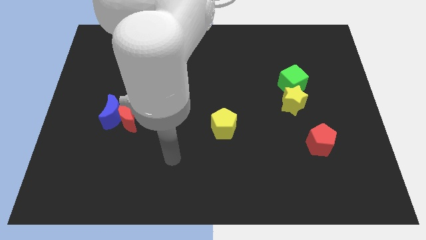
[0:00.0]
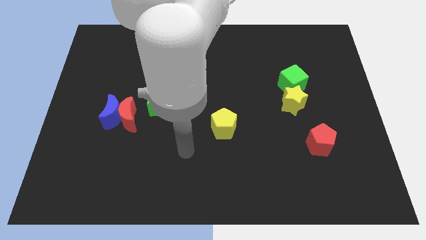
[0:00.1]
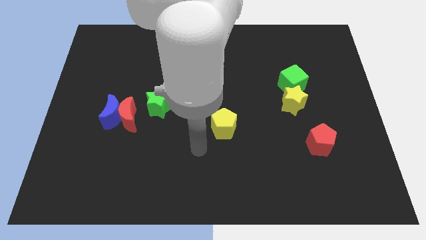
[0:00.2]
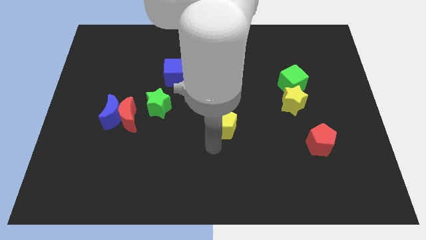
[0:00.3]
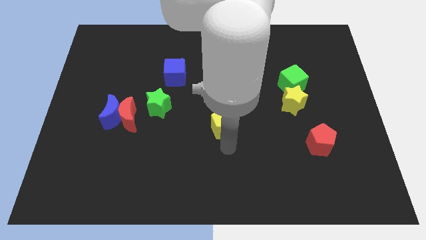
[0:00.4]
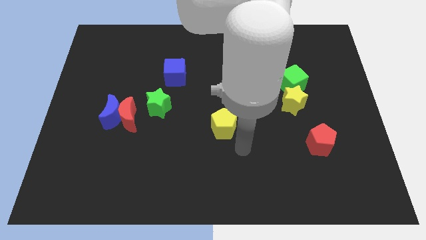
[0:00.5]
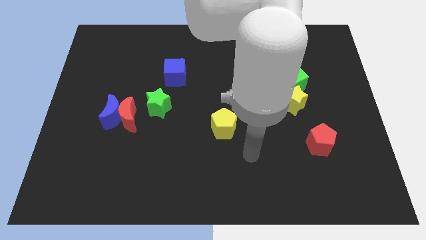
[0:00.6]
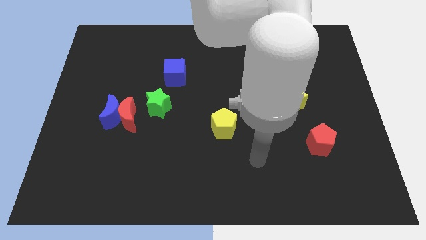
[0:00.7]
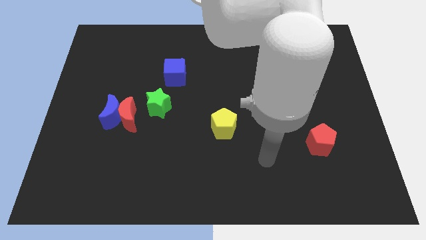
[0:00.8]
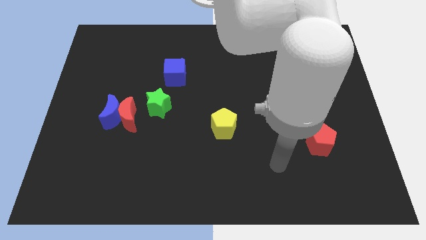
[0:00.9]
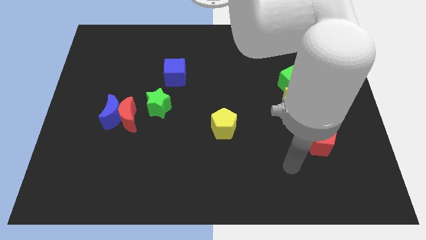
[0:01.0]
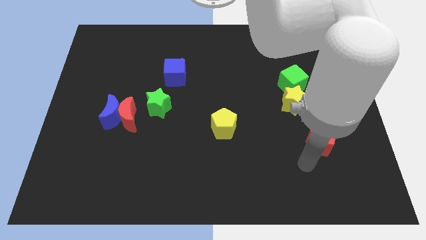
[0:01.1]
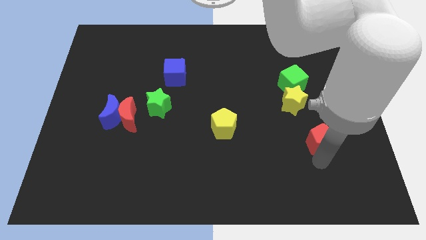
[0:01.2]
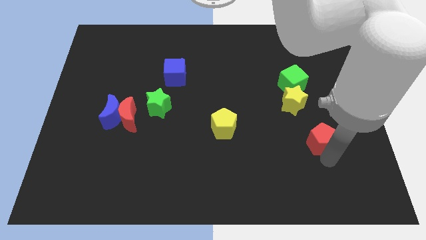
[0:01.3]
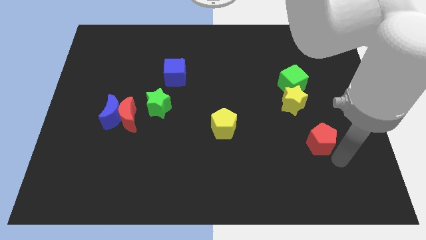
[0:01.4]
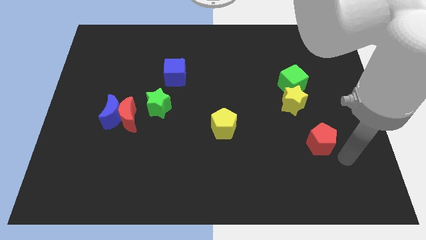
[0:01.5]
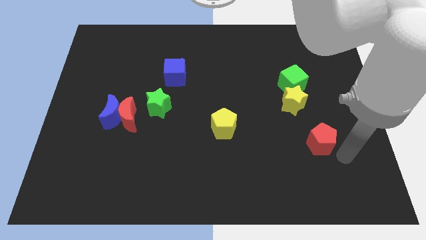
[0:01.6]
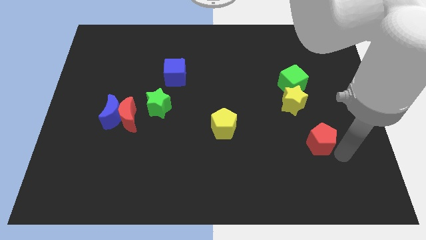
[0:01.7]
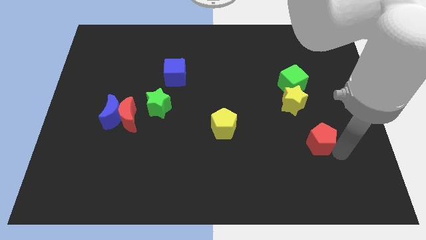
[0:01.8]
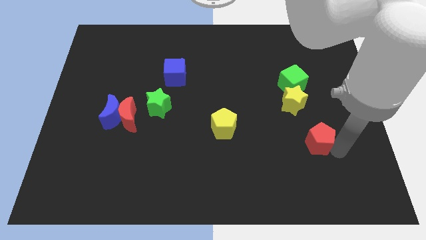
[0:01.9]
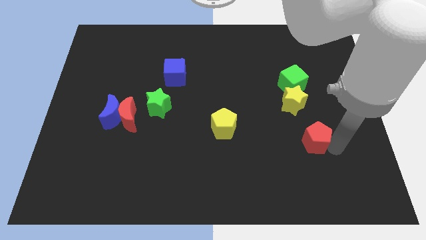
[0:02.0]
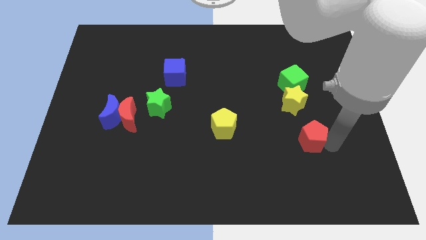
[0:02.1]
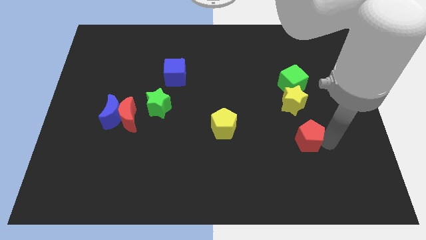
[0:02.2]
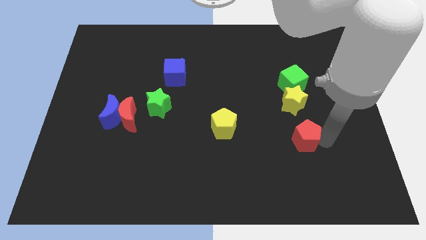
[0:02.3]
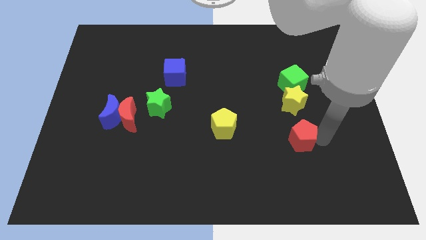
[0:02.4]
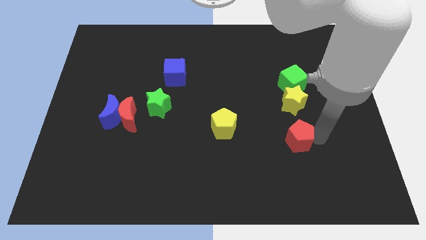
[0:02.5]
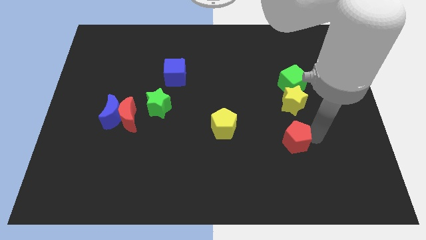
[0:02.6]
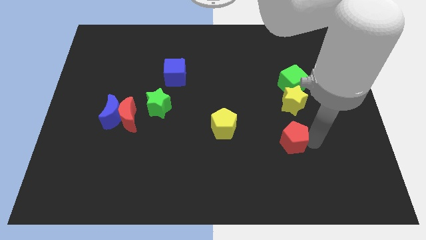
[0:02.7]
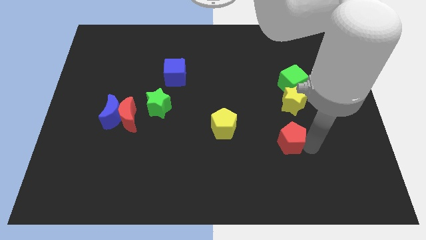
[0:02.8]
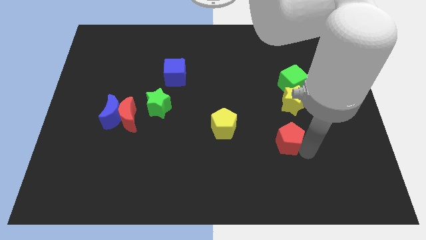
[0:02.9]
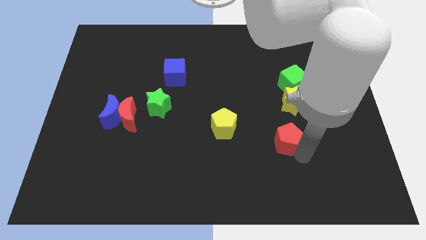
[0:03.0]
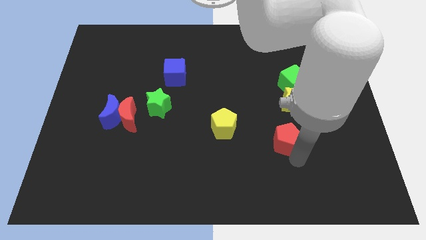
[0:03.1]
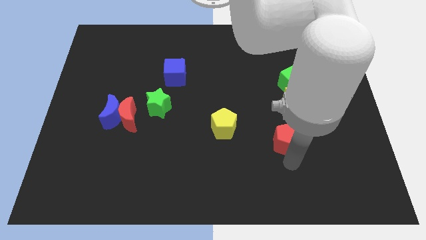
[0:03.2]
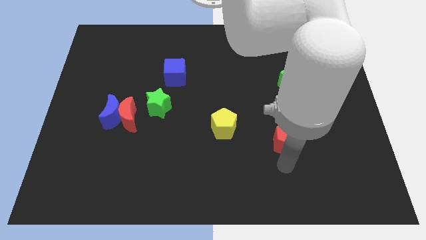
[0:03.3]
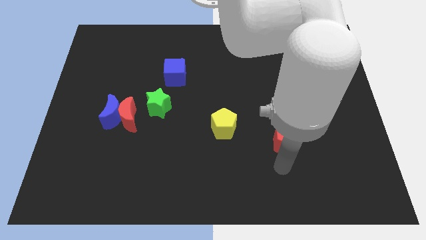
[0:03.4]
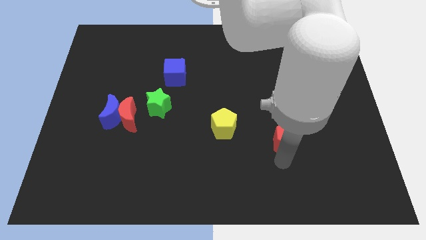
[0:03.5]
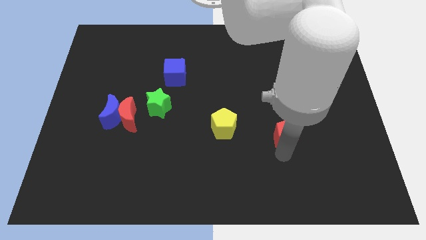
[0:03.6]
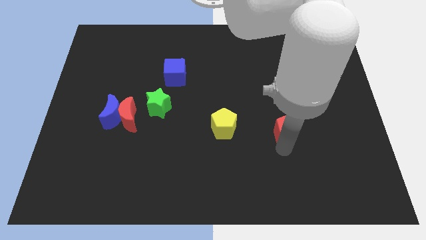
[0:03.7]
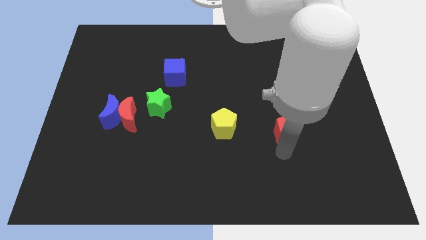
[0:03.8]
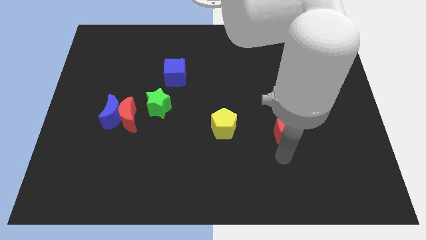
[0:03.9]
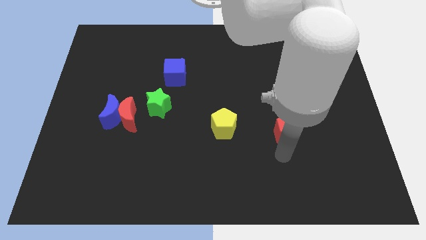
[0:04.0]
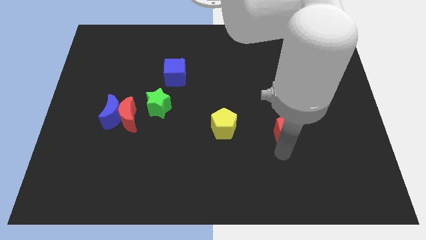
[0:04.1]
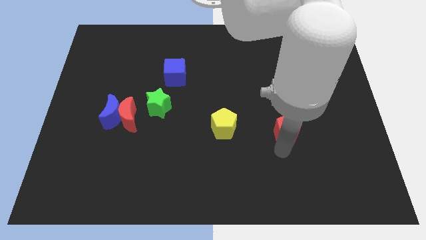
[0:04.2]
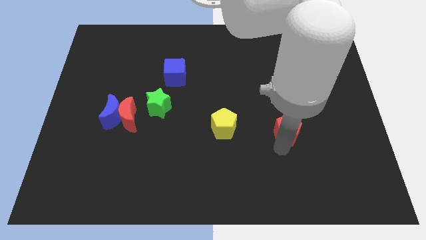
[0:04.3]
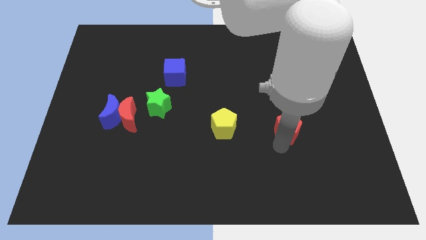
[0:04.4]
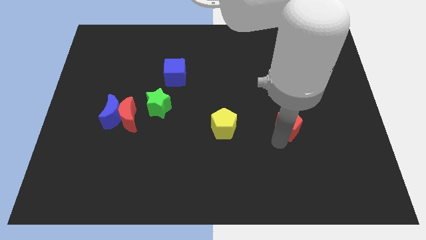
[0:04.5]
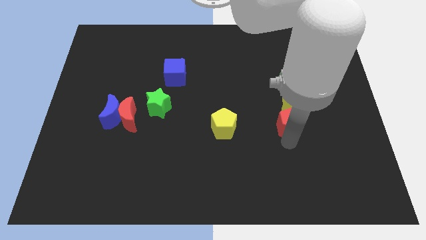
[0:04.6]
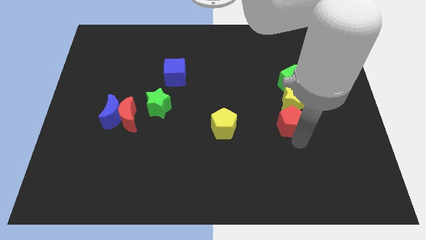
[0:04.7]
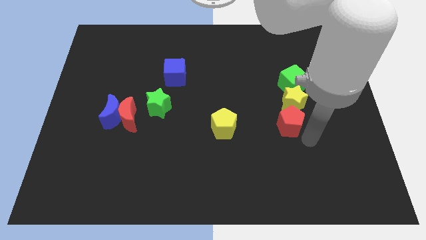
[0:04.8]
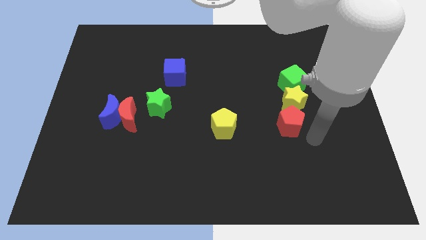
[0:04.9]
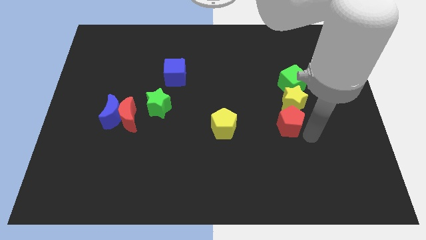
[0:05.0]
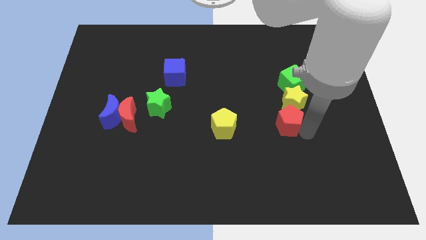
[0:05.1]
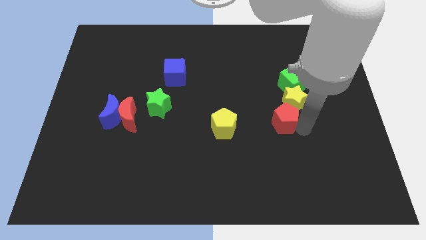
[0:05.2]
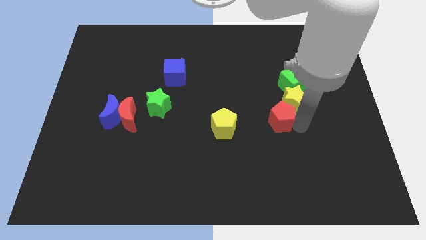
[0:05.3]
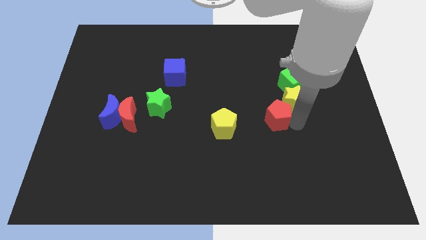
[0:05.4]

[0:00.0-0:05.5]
push the red pentagon to the left of the yellow star

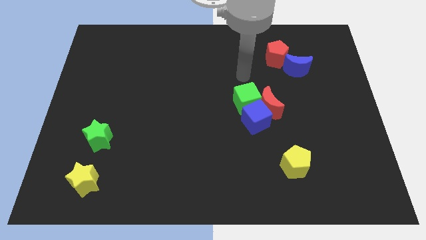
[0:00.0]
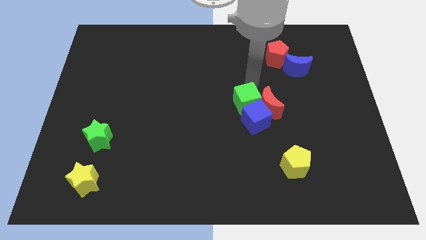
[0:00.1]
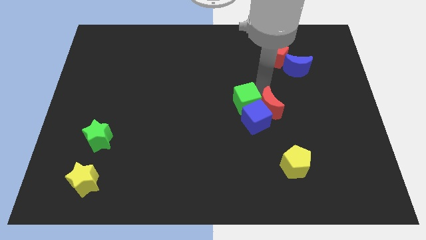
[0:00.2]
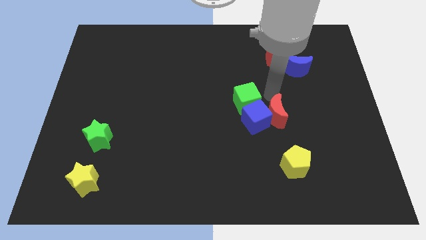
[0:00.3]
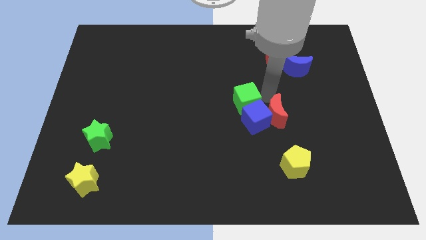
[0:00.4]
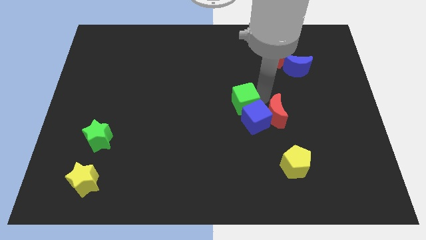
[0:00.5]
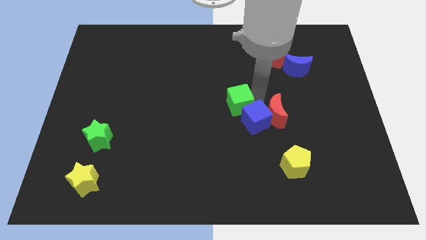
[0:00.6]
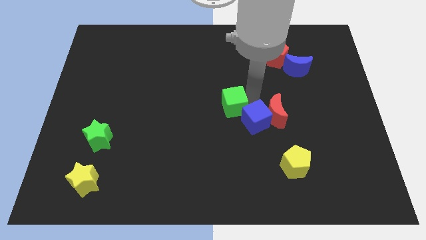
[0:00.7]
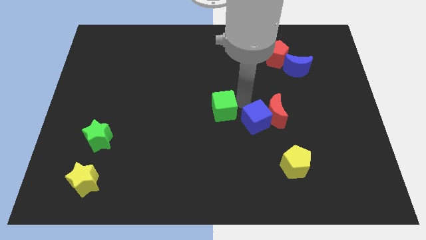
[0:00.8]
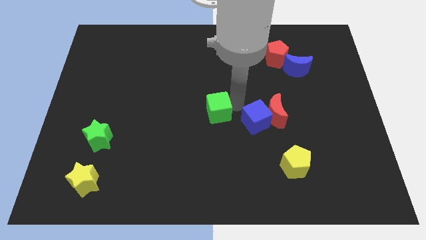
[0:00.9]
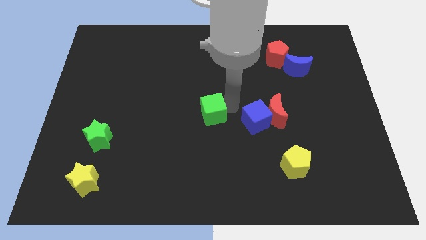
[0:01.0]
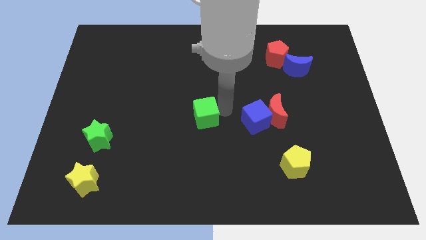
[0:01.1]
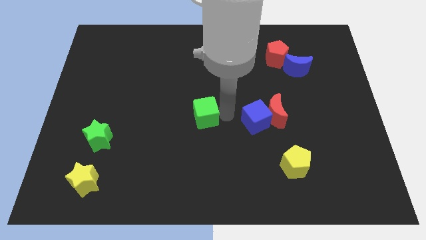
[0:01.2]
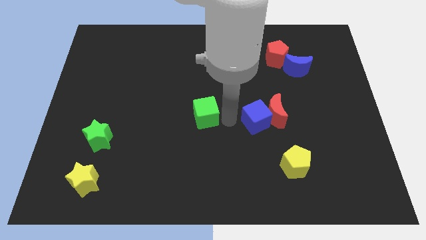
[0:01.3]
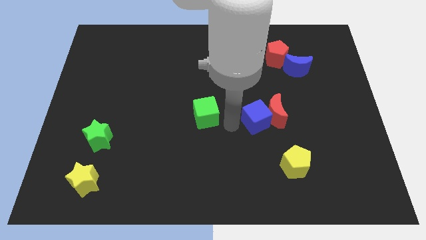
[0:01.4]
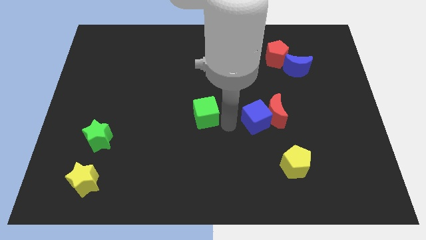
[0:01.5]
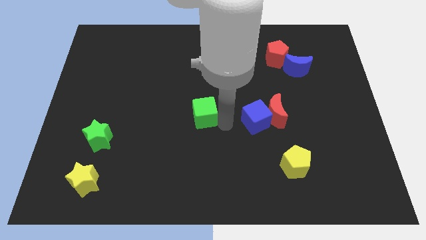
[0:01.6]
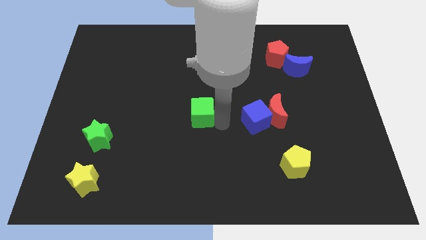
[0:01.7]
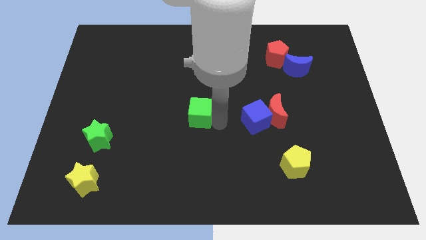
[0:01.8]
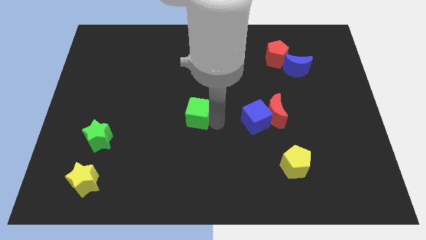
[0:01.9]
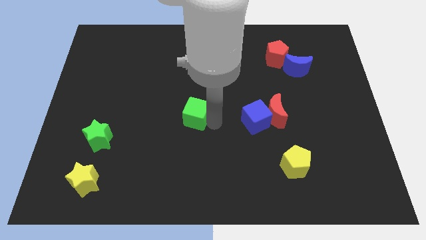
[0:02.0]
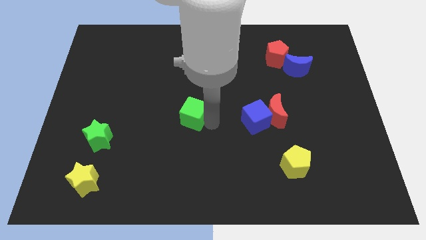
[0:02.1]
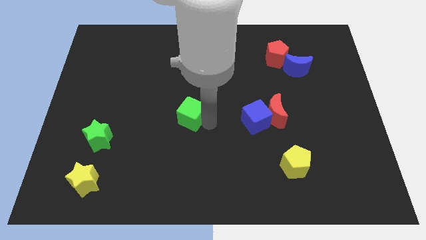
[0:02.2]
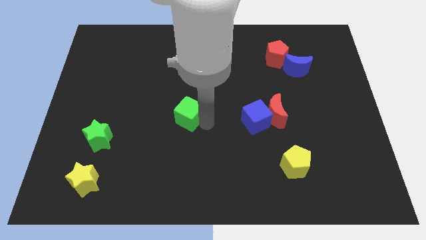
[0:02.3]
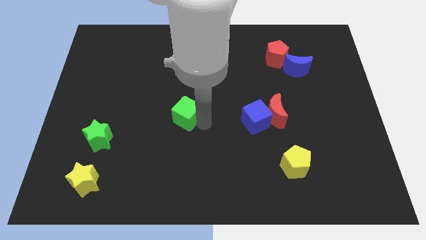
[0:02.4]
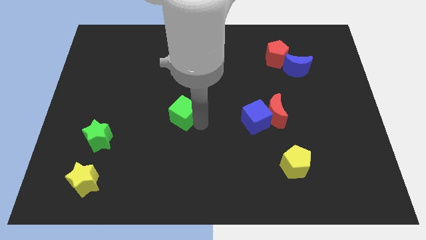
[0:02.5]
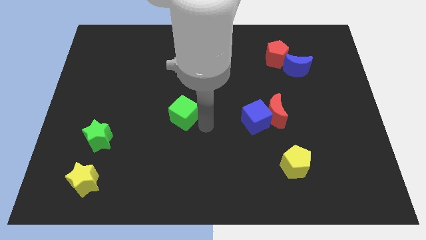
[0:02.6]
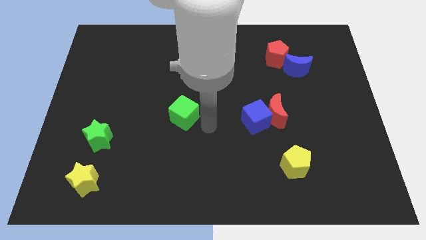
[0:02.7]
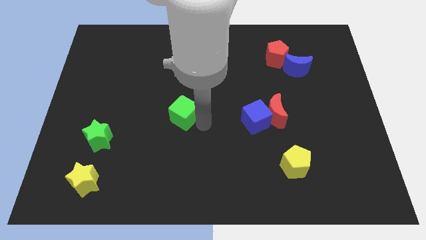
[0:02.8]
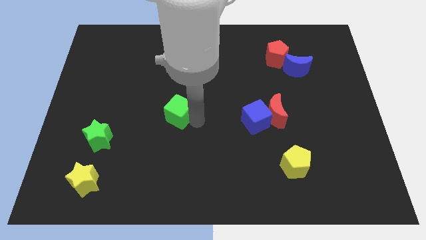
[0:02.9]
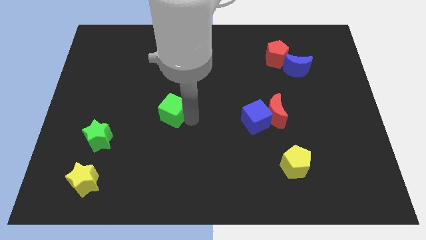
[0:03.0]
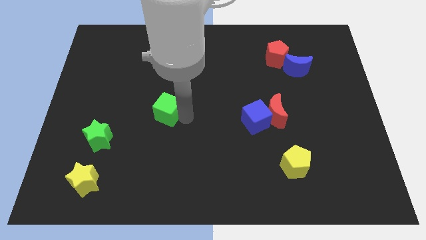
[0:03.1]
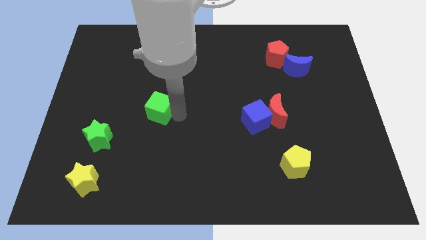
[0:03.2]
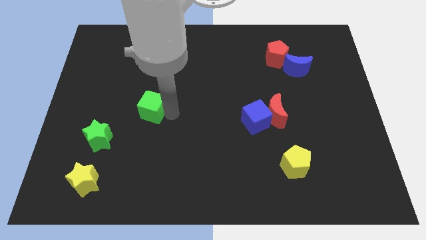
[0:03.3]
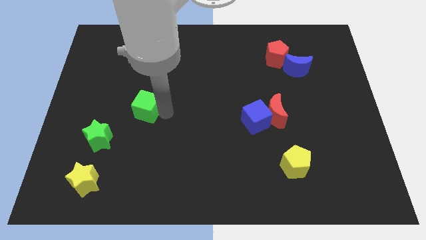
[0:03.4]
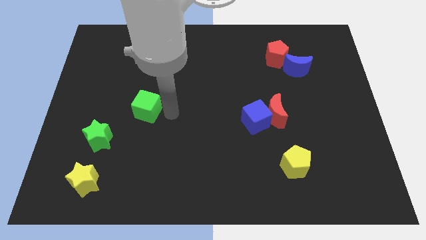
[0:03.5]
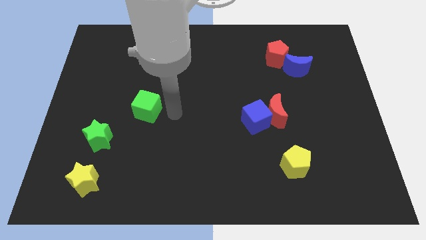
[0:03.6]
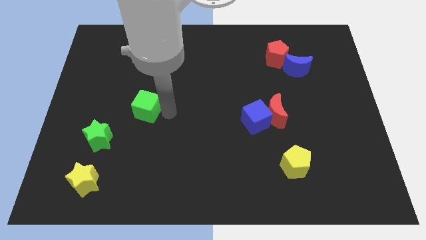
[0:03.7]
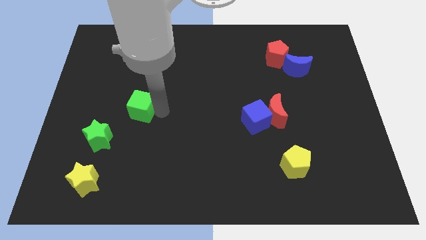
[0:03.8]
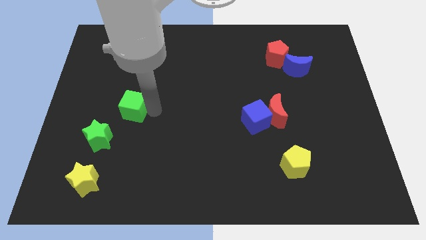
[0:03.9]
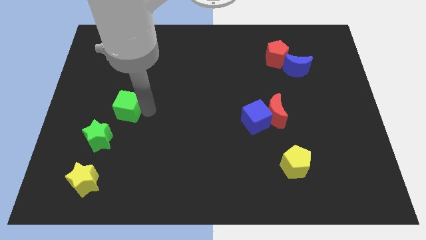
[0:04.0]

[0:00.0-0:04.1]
move the green cube above the green star
